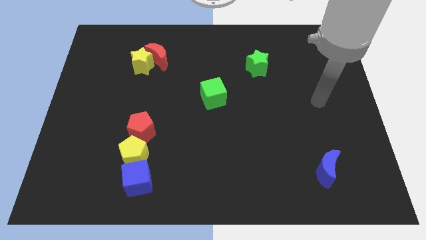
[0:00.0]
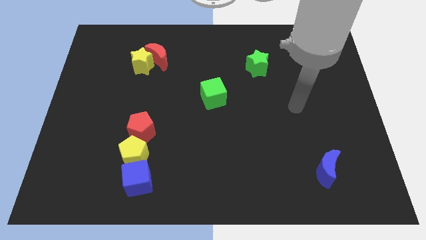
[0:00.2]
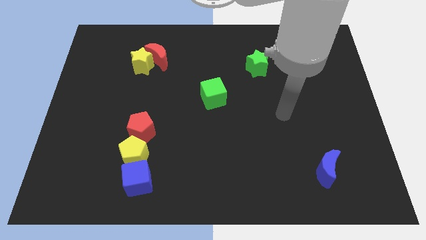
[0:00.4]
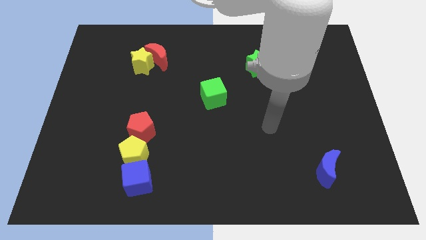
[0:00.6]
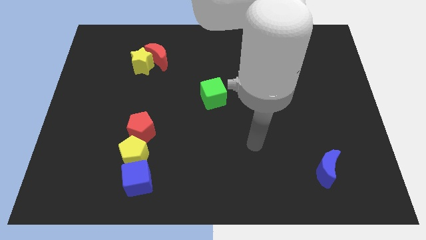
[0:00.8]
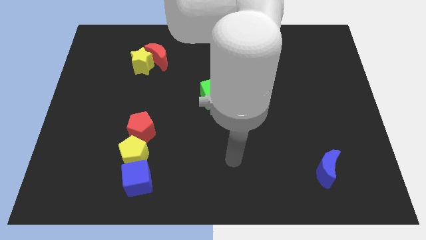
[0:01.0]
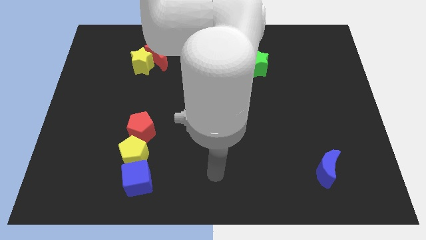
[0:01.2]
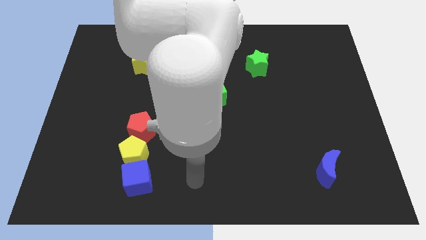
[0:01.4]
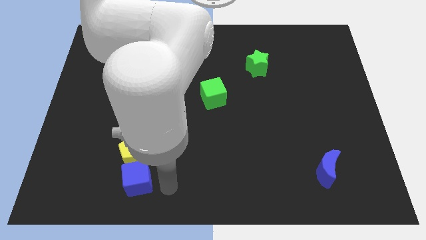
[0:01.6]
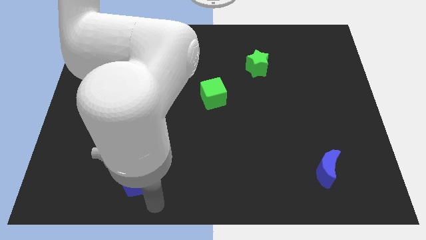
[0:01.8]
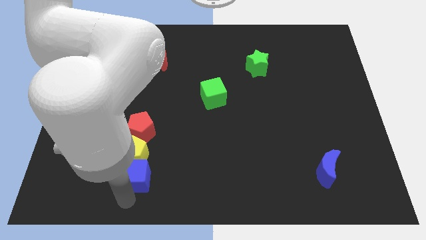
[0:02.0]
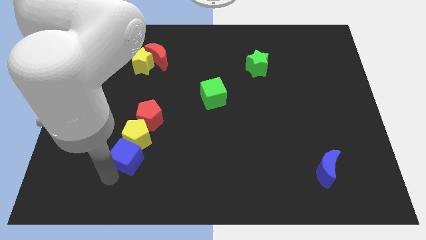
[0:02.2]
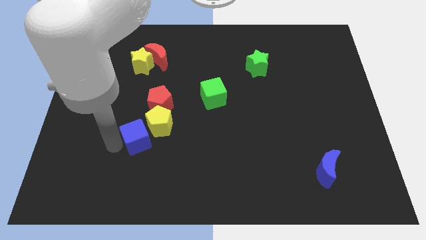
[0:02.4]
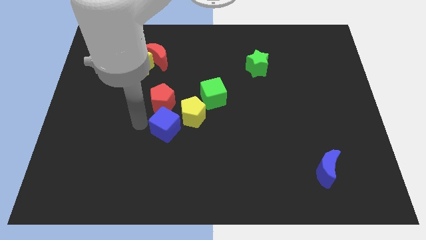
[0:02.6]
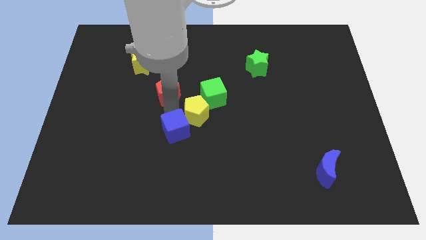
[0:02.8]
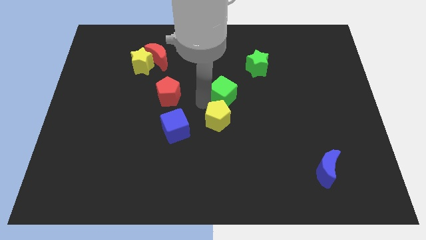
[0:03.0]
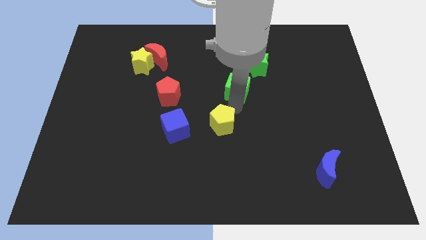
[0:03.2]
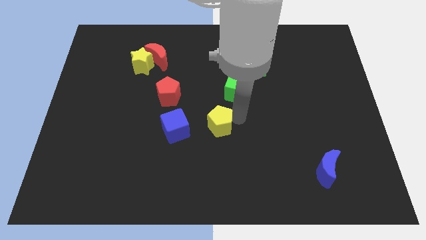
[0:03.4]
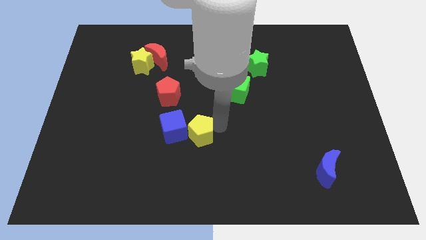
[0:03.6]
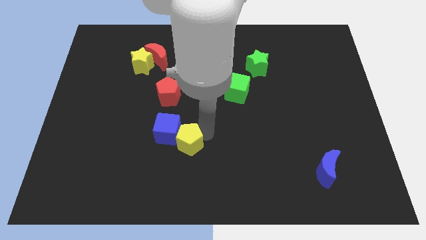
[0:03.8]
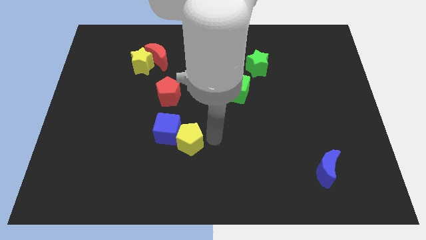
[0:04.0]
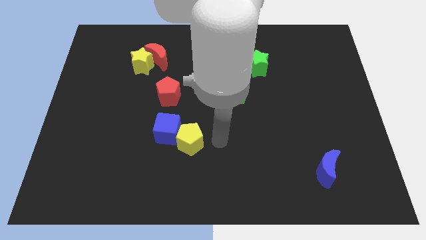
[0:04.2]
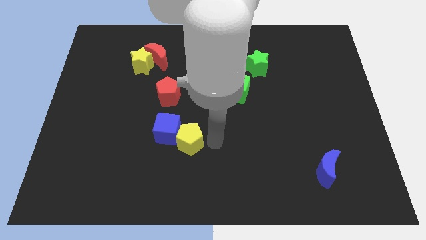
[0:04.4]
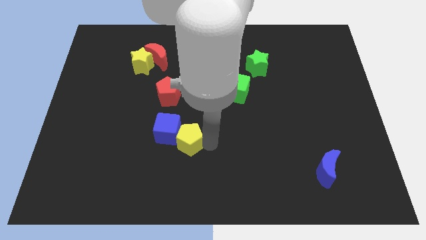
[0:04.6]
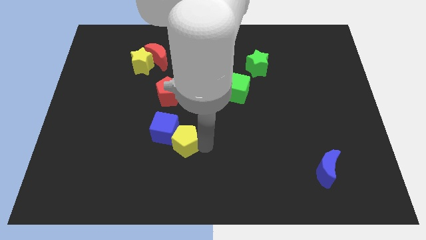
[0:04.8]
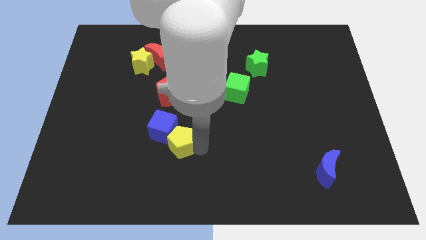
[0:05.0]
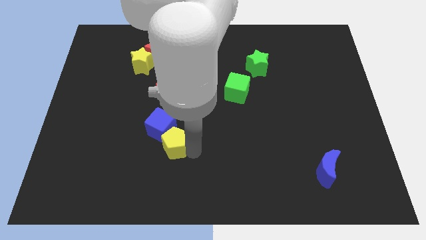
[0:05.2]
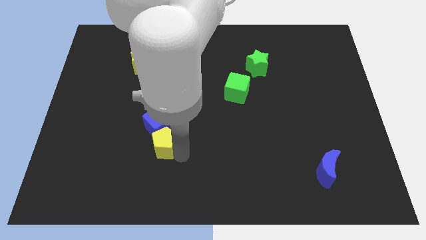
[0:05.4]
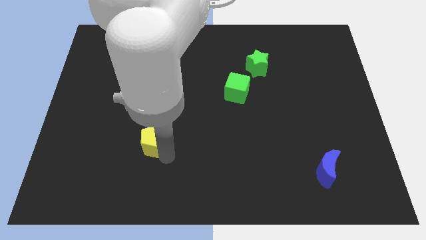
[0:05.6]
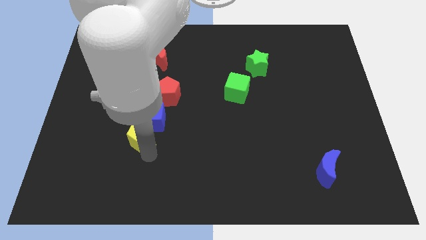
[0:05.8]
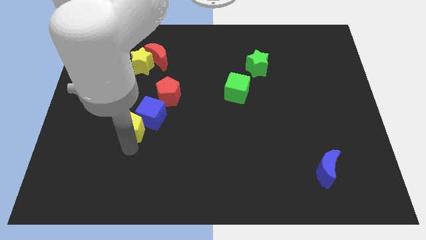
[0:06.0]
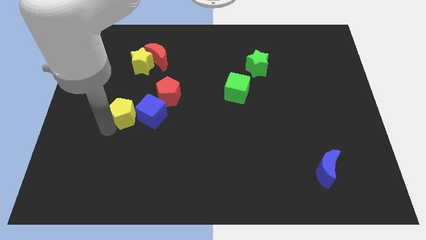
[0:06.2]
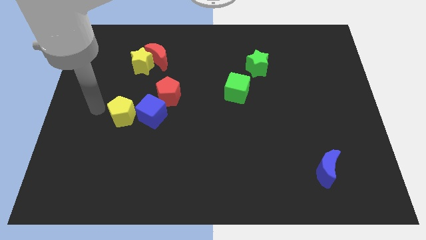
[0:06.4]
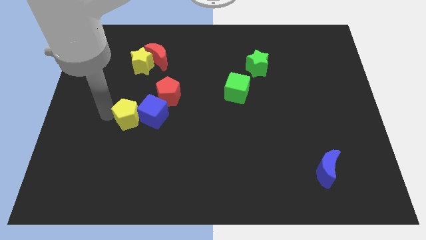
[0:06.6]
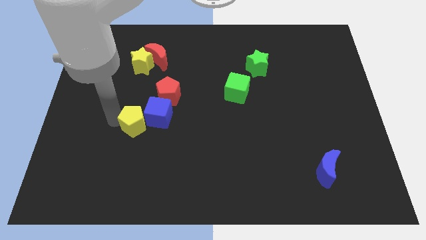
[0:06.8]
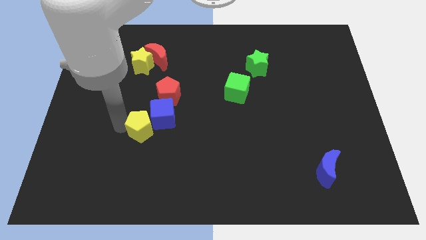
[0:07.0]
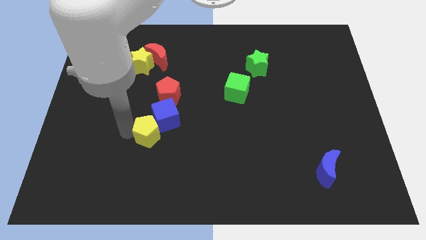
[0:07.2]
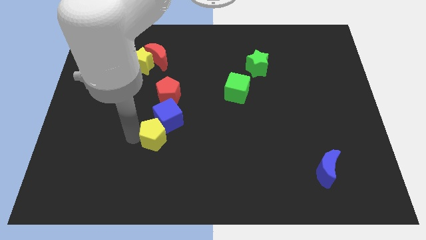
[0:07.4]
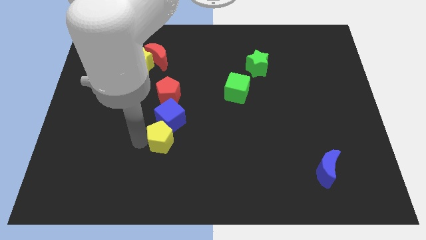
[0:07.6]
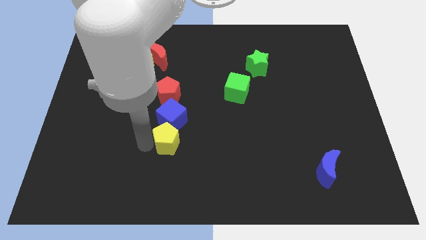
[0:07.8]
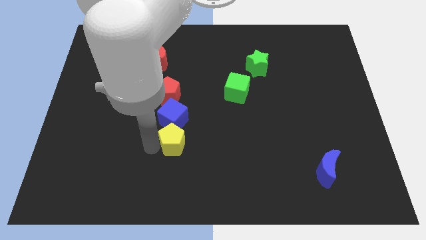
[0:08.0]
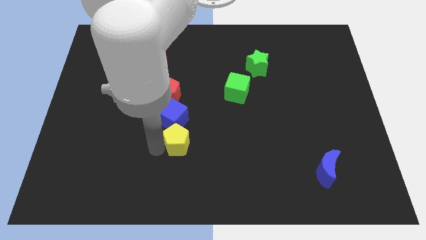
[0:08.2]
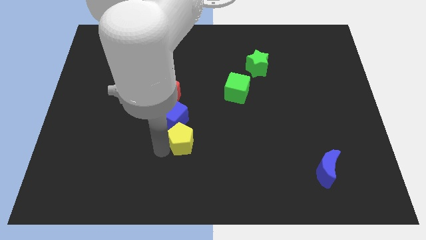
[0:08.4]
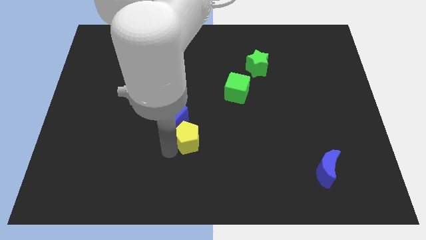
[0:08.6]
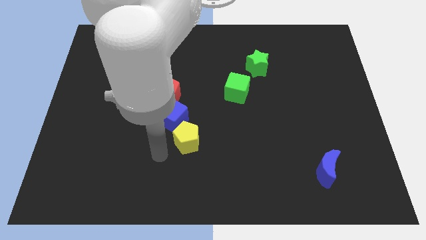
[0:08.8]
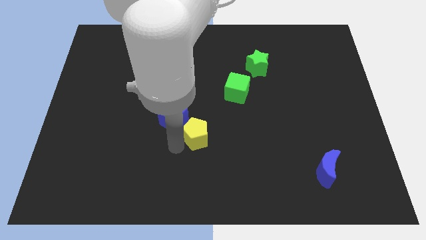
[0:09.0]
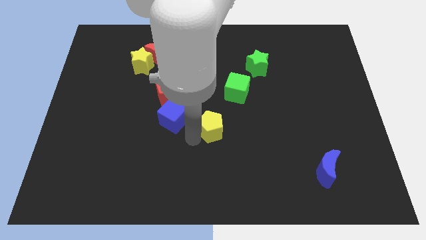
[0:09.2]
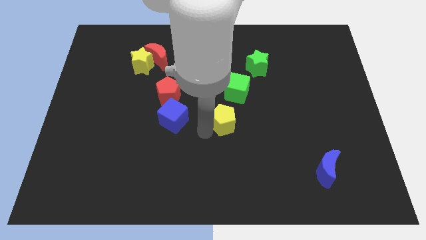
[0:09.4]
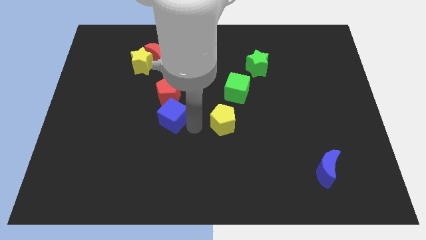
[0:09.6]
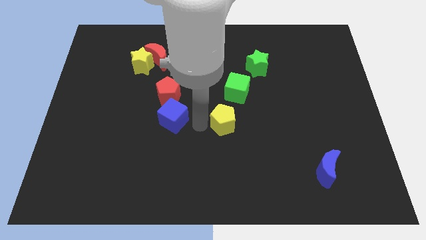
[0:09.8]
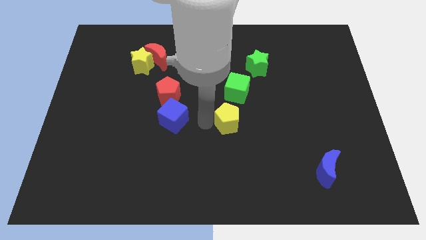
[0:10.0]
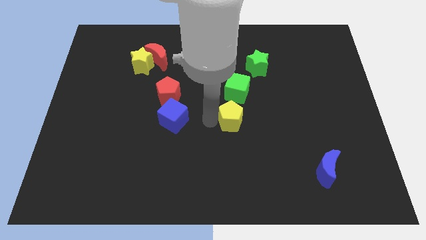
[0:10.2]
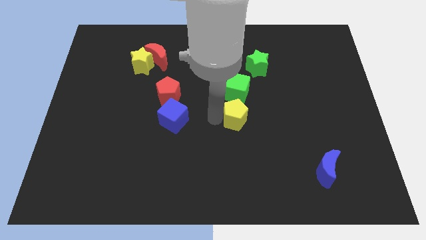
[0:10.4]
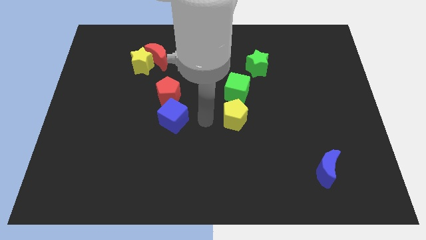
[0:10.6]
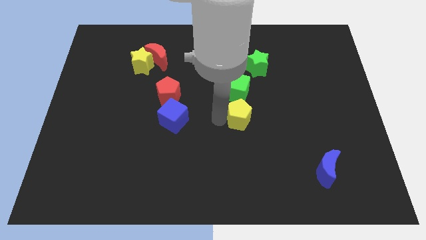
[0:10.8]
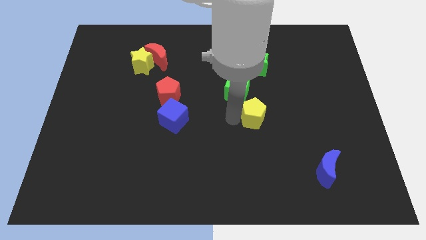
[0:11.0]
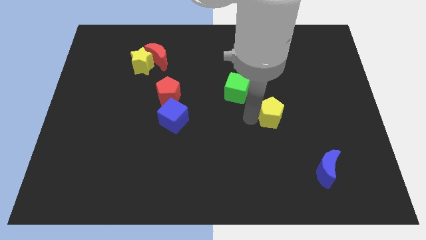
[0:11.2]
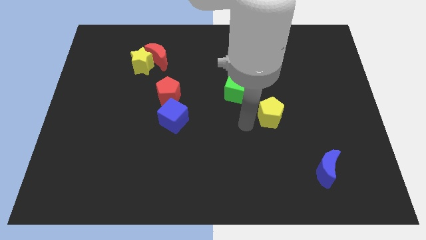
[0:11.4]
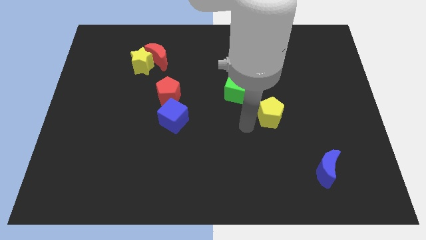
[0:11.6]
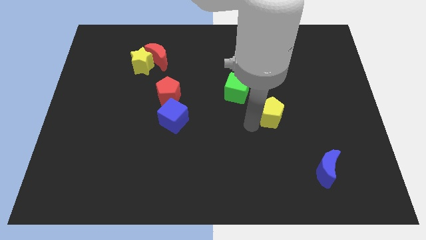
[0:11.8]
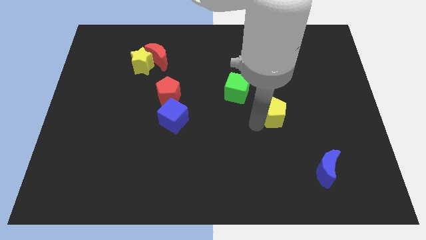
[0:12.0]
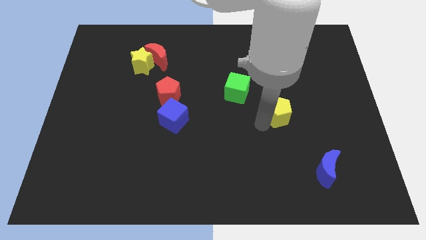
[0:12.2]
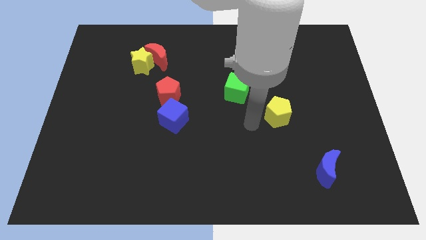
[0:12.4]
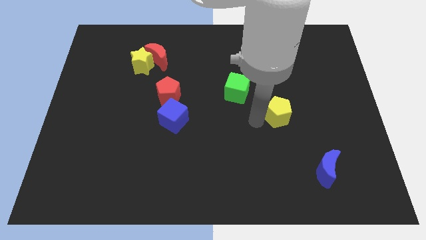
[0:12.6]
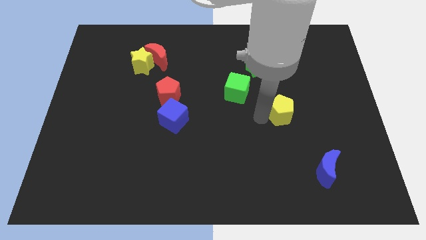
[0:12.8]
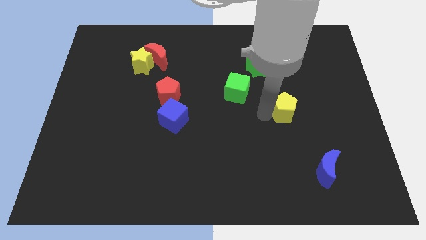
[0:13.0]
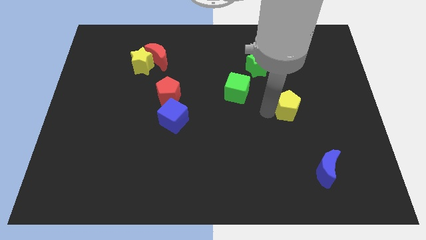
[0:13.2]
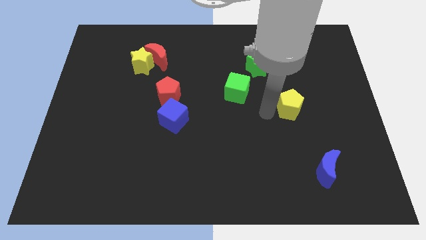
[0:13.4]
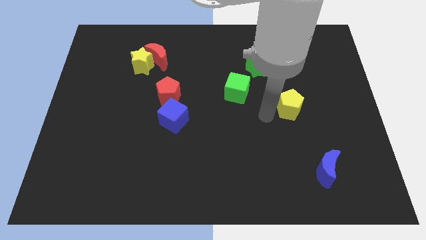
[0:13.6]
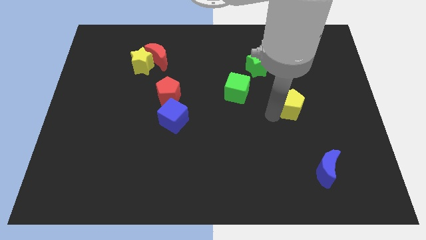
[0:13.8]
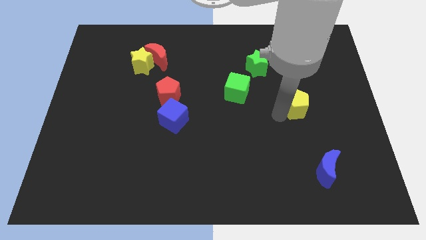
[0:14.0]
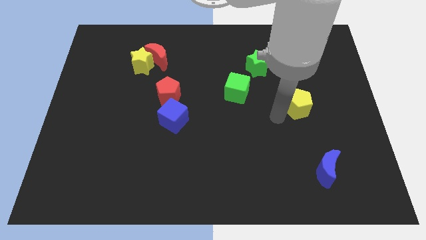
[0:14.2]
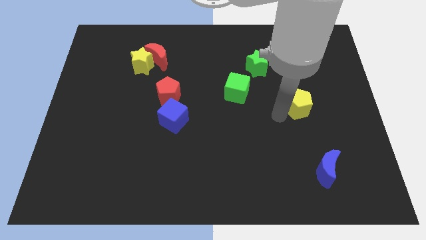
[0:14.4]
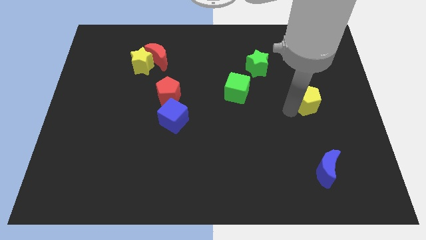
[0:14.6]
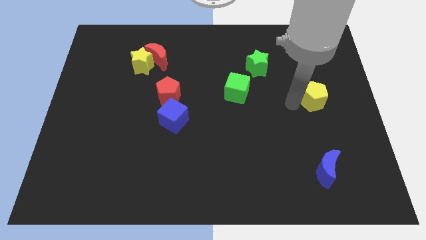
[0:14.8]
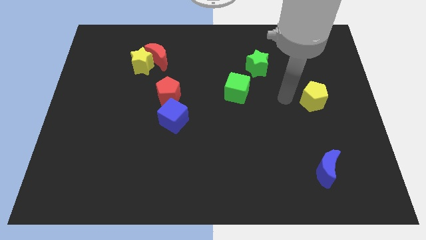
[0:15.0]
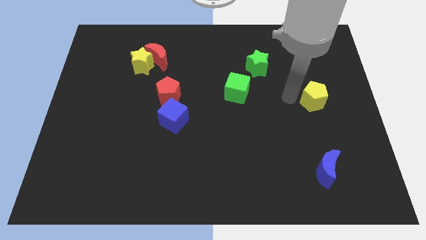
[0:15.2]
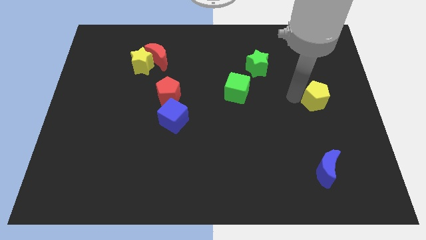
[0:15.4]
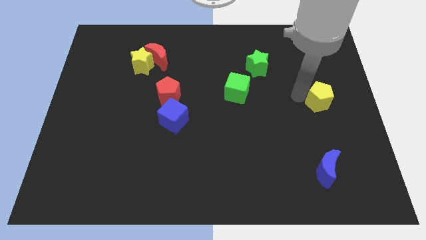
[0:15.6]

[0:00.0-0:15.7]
push the yellow pentagon to the right side
